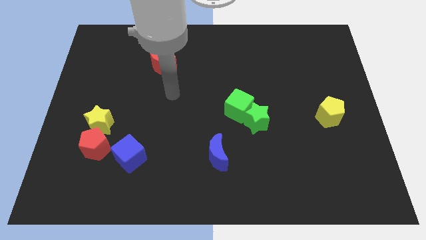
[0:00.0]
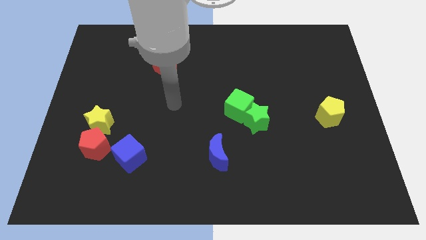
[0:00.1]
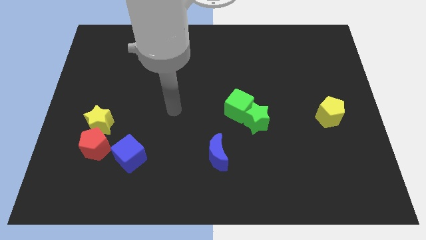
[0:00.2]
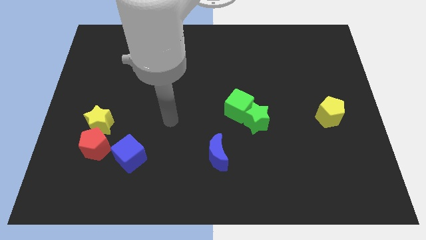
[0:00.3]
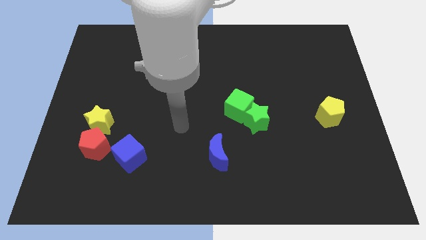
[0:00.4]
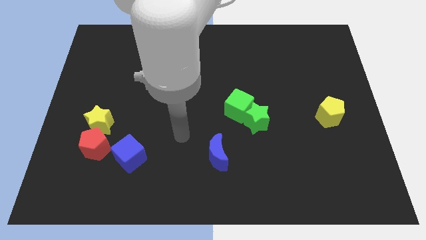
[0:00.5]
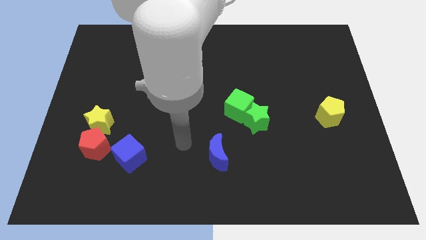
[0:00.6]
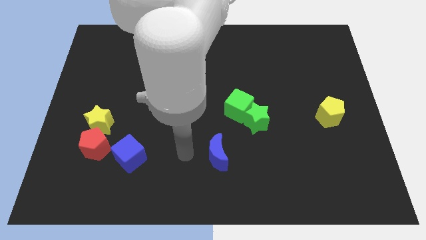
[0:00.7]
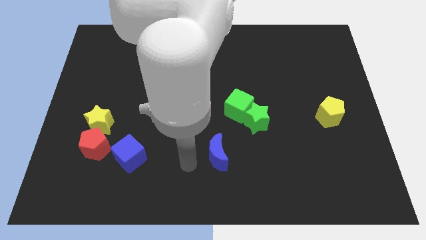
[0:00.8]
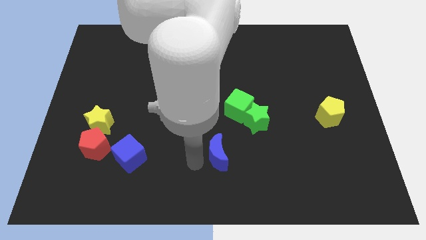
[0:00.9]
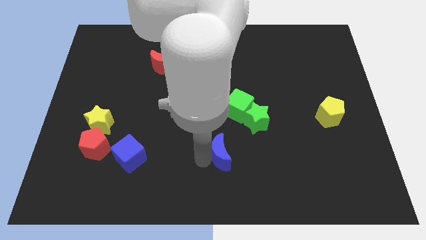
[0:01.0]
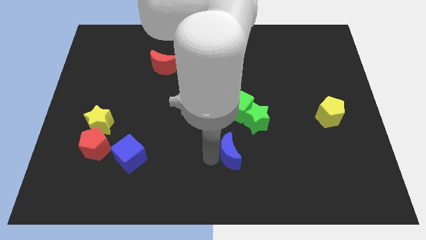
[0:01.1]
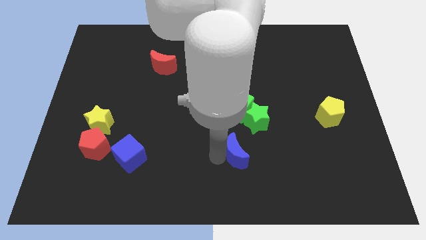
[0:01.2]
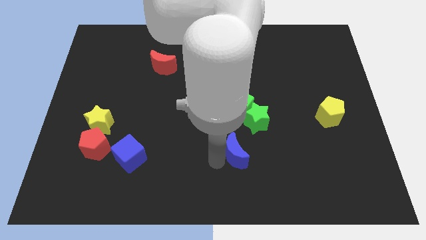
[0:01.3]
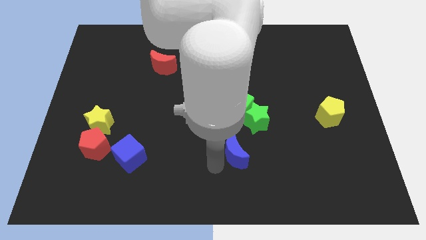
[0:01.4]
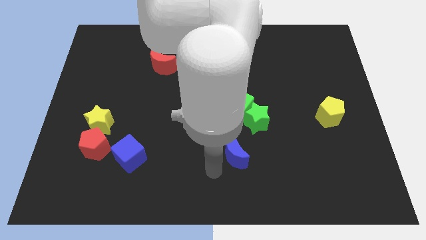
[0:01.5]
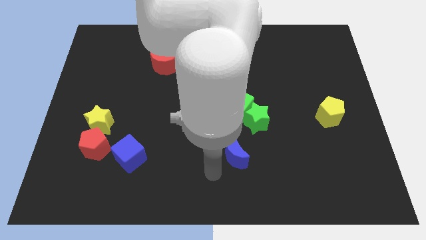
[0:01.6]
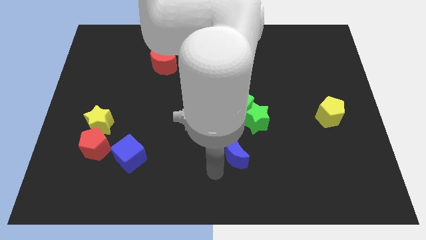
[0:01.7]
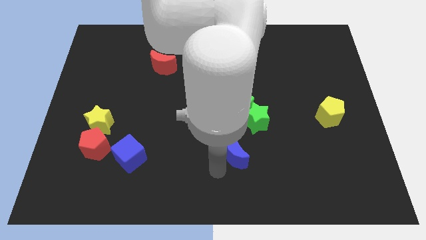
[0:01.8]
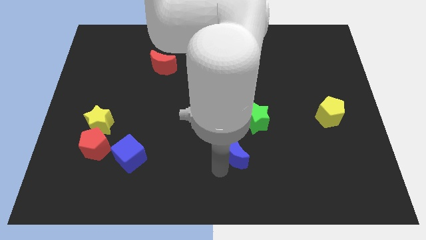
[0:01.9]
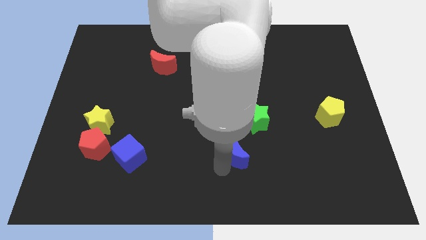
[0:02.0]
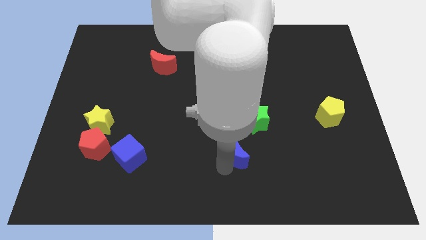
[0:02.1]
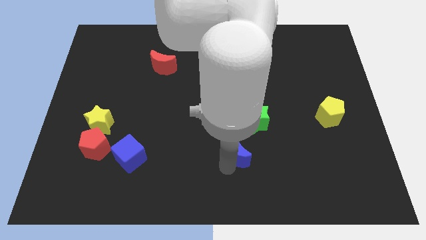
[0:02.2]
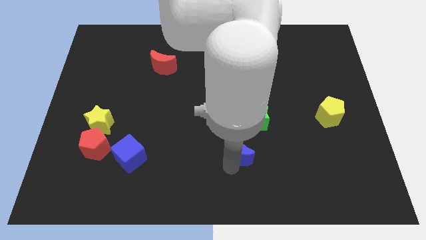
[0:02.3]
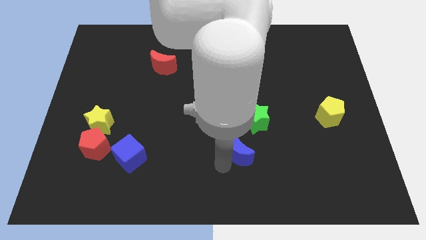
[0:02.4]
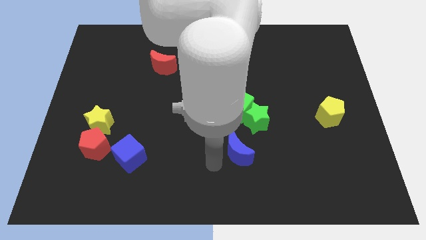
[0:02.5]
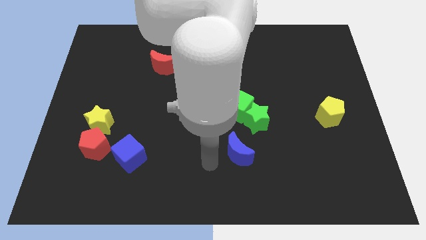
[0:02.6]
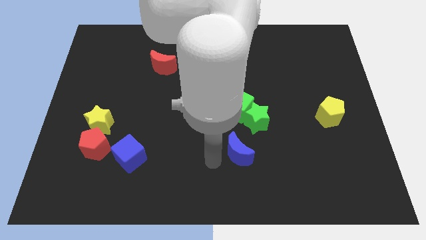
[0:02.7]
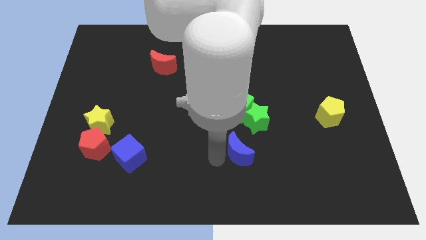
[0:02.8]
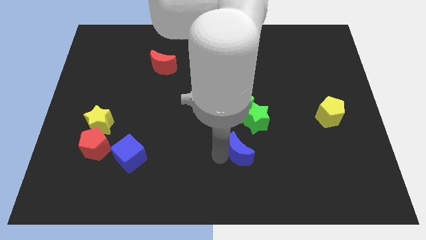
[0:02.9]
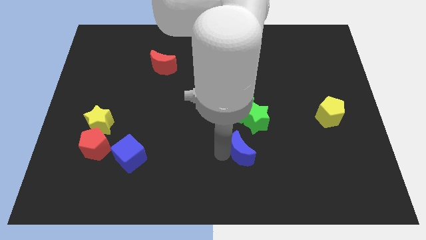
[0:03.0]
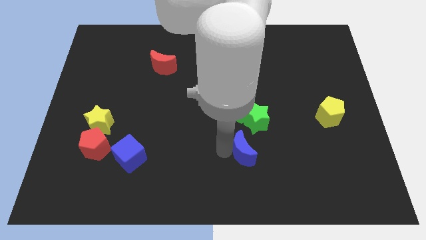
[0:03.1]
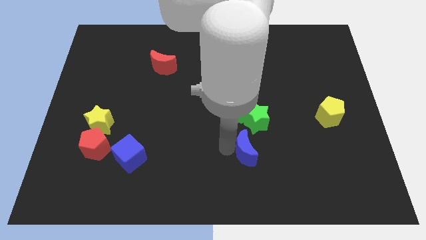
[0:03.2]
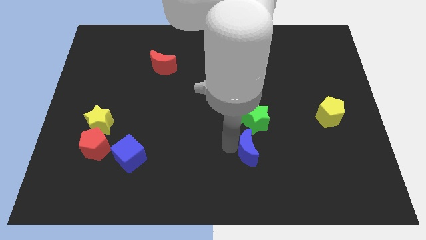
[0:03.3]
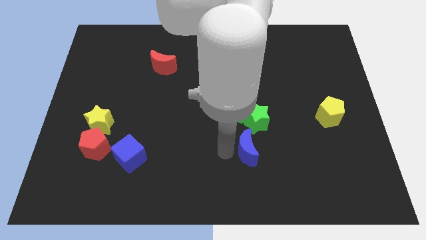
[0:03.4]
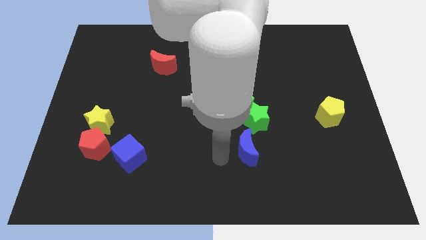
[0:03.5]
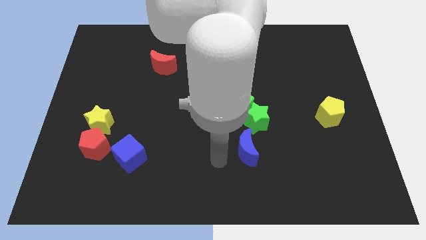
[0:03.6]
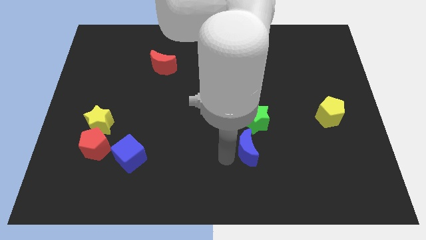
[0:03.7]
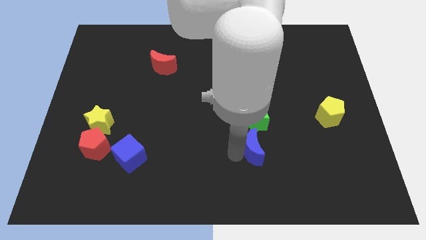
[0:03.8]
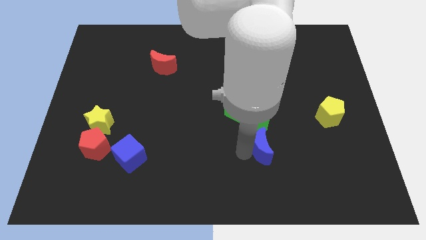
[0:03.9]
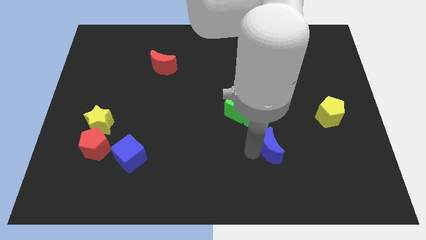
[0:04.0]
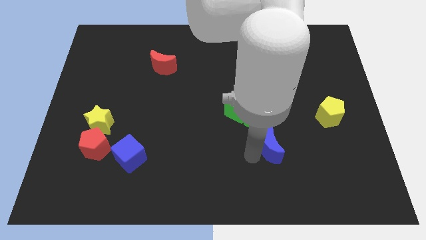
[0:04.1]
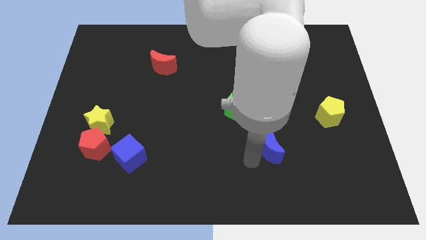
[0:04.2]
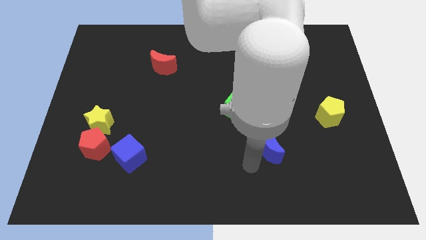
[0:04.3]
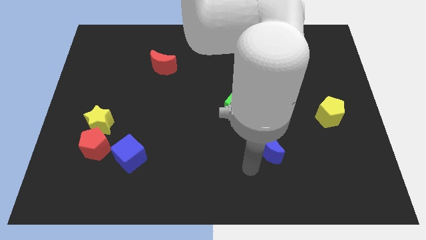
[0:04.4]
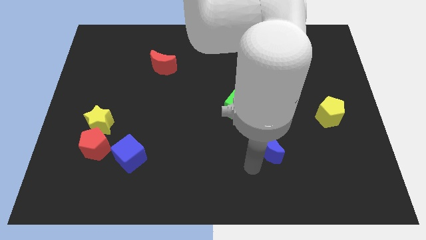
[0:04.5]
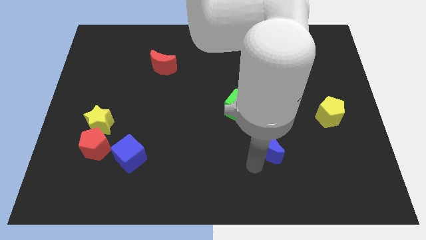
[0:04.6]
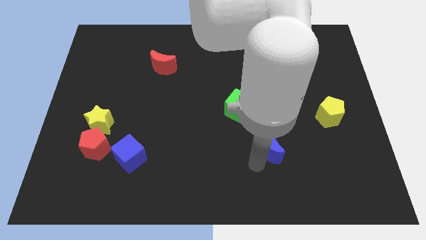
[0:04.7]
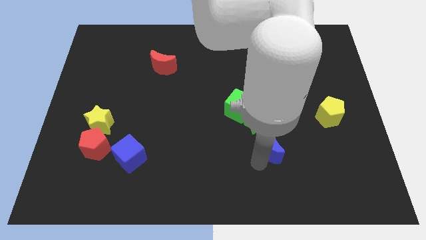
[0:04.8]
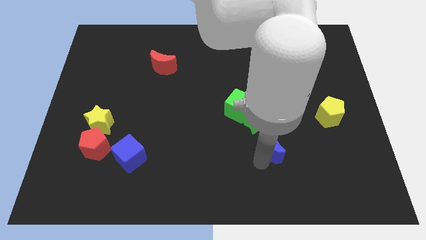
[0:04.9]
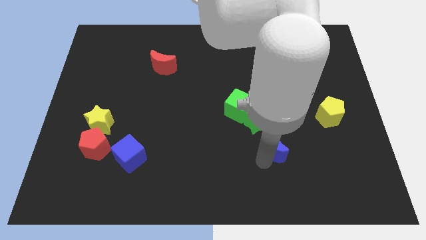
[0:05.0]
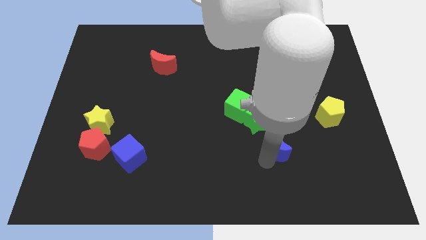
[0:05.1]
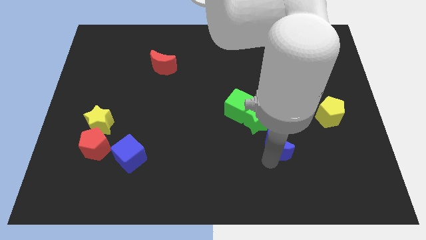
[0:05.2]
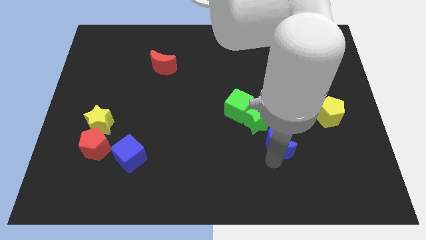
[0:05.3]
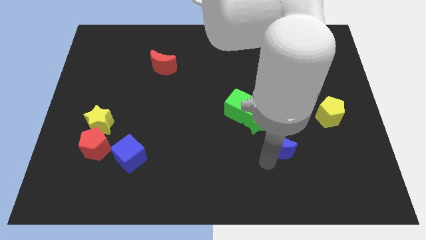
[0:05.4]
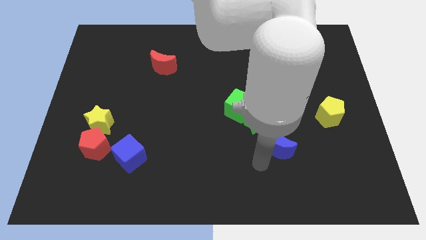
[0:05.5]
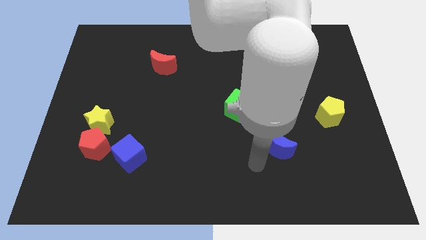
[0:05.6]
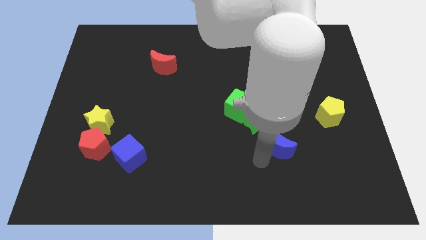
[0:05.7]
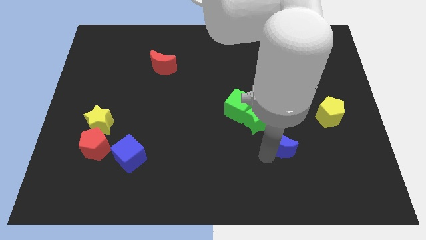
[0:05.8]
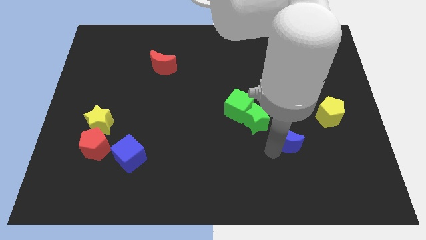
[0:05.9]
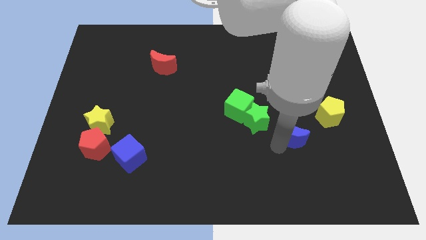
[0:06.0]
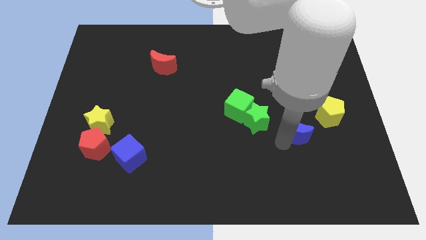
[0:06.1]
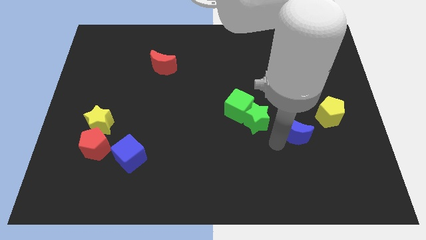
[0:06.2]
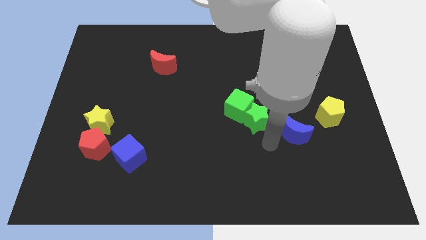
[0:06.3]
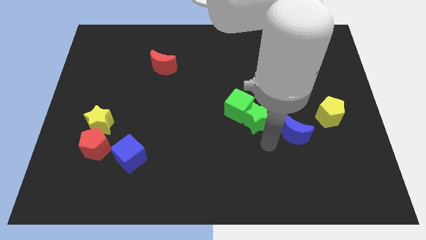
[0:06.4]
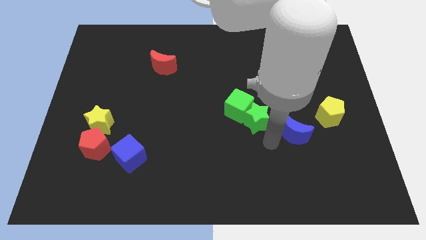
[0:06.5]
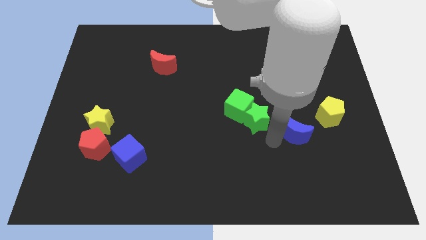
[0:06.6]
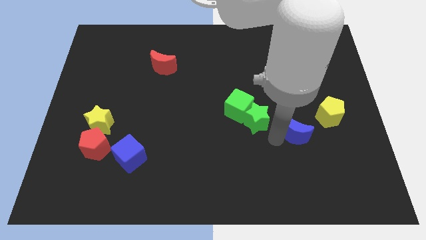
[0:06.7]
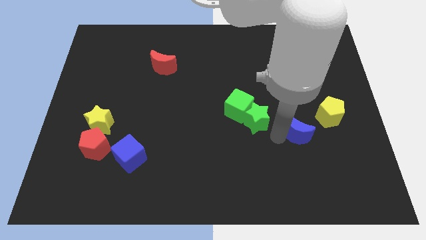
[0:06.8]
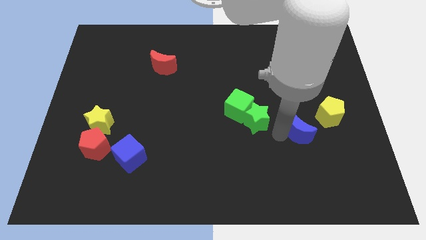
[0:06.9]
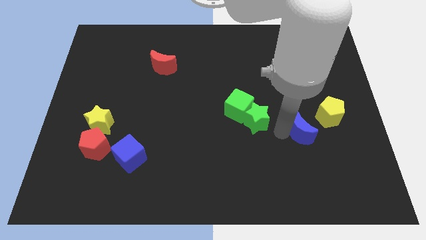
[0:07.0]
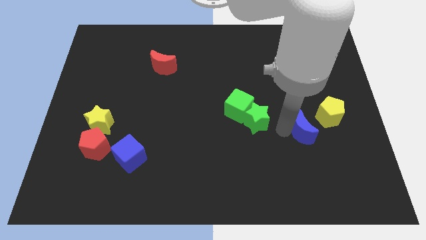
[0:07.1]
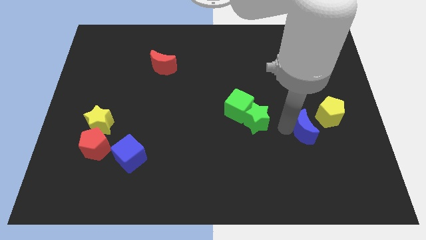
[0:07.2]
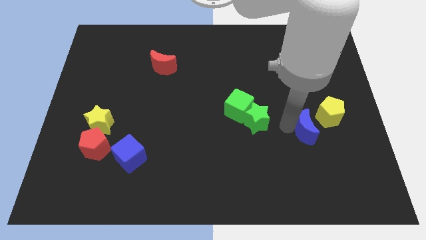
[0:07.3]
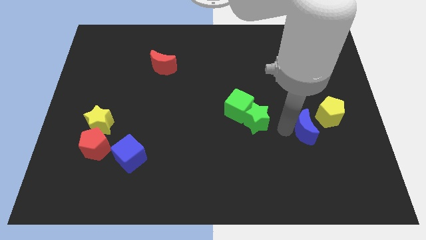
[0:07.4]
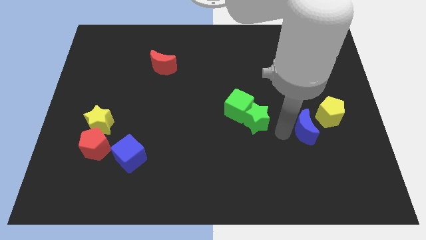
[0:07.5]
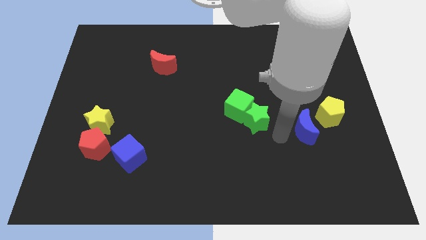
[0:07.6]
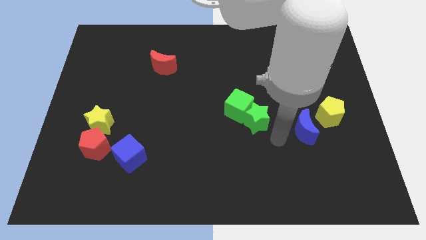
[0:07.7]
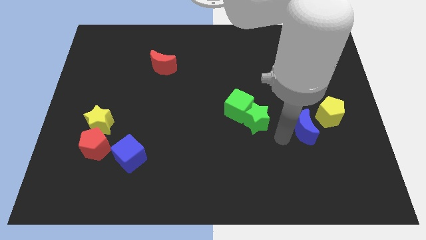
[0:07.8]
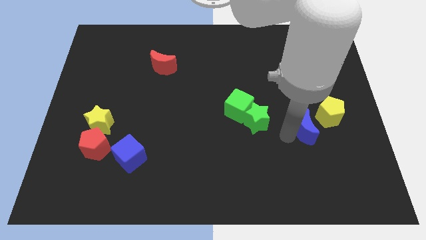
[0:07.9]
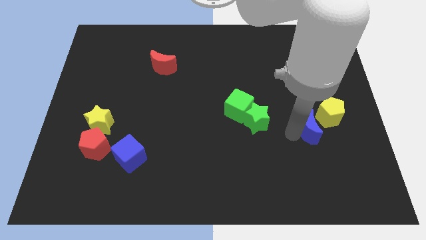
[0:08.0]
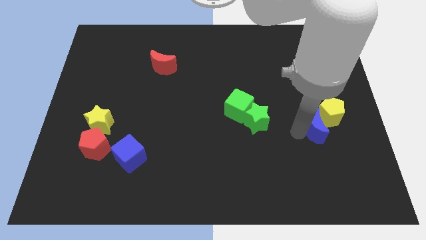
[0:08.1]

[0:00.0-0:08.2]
move the blue moon towards the yellow pentagon
